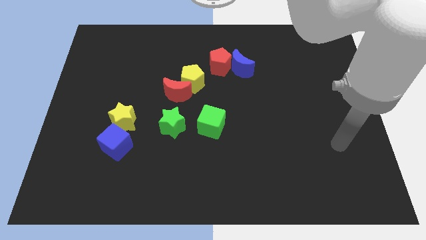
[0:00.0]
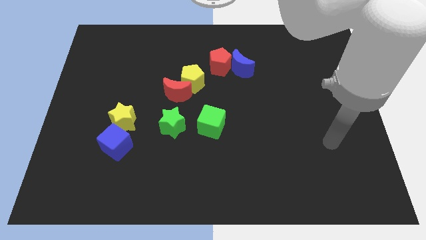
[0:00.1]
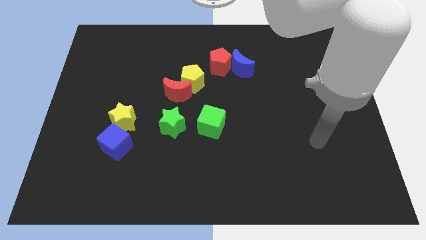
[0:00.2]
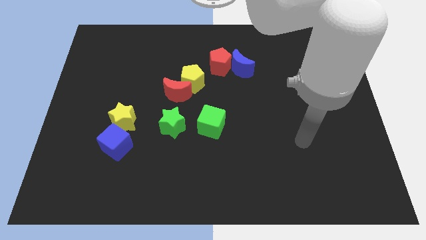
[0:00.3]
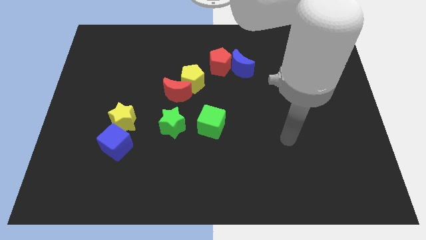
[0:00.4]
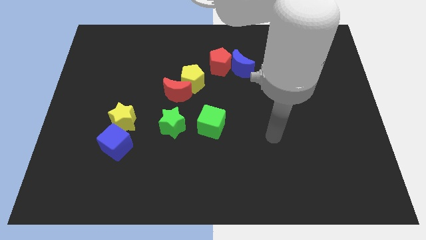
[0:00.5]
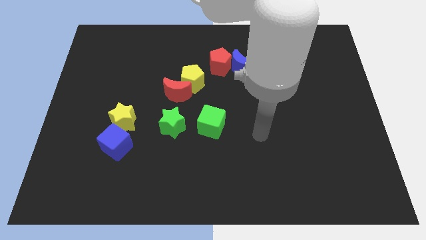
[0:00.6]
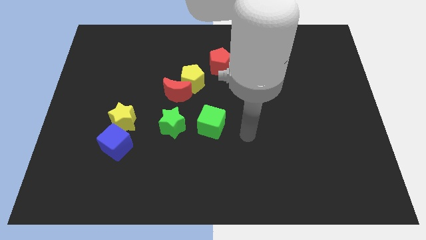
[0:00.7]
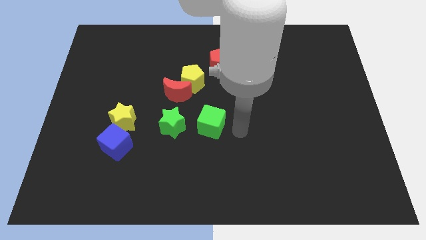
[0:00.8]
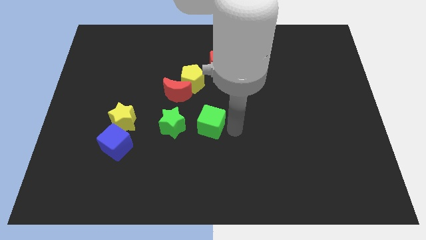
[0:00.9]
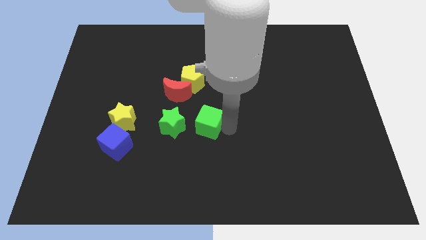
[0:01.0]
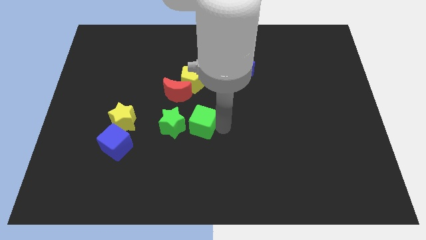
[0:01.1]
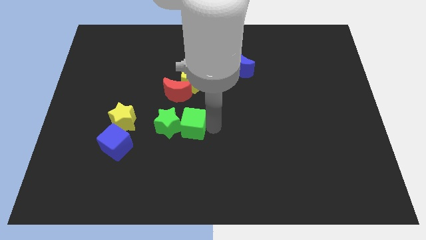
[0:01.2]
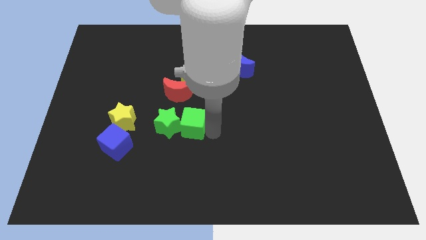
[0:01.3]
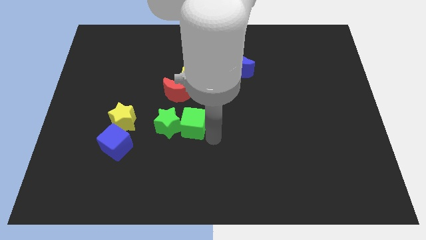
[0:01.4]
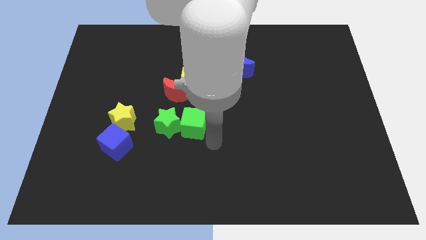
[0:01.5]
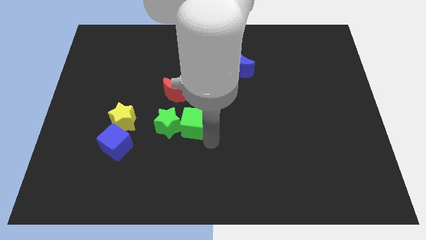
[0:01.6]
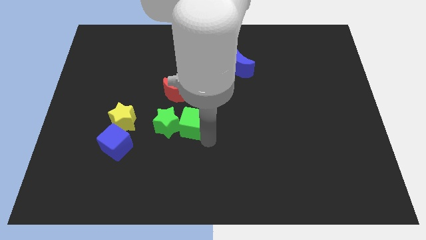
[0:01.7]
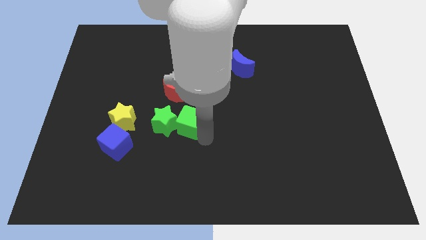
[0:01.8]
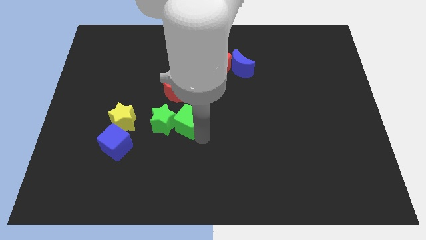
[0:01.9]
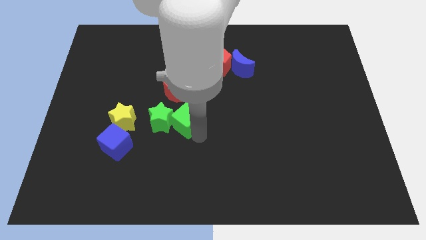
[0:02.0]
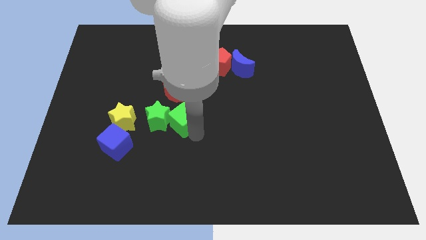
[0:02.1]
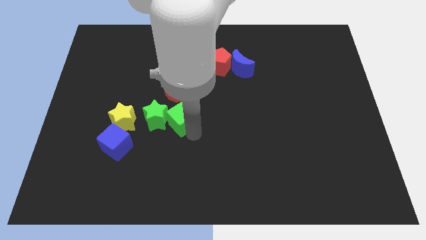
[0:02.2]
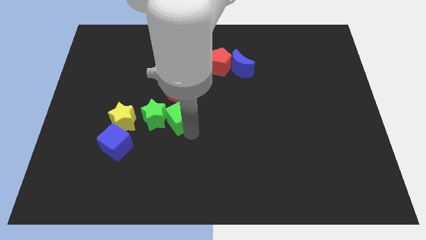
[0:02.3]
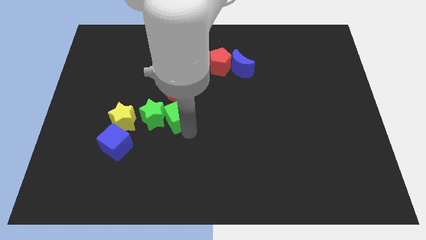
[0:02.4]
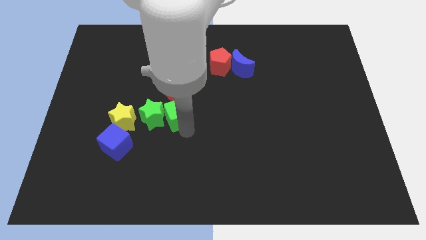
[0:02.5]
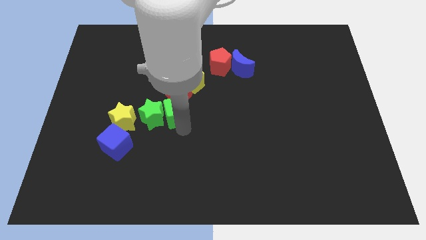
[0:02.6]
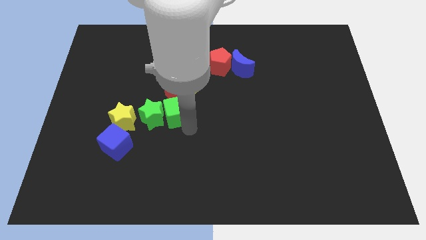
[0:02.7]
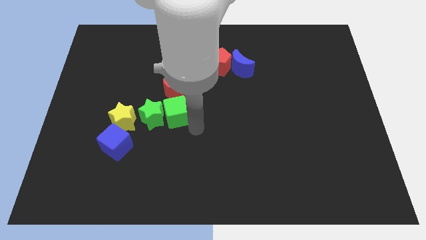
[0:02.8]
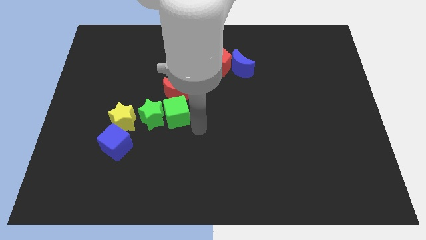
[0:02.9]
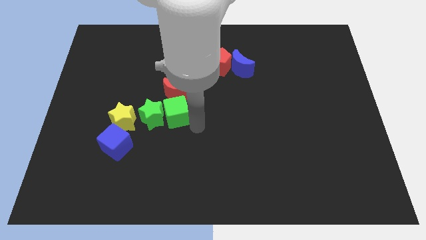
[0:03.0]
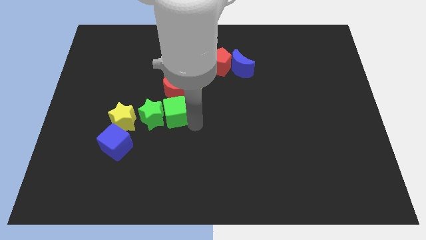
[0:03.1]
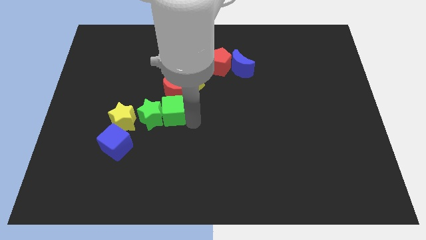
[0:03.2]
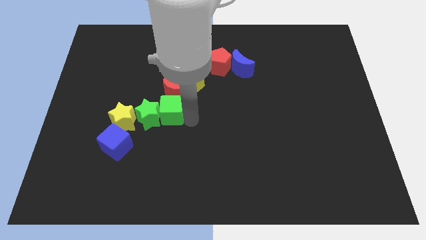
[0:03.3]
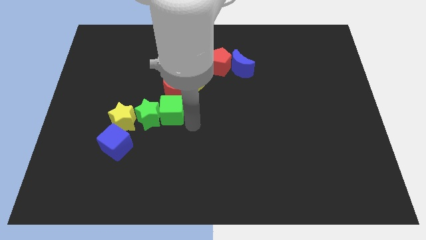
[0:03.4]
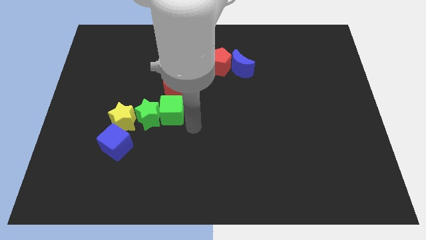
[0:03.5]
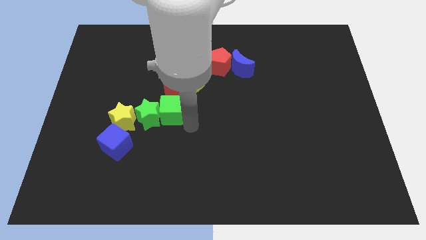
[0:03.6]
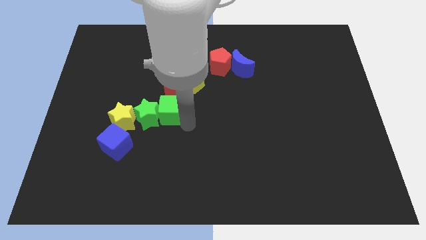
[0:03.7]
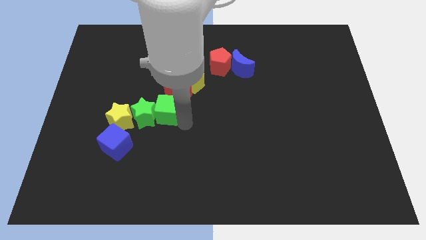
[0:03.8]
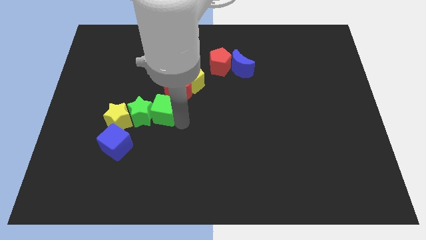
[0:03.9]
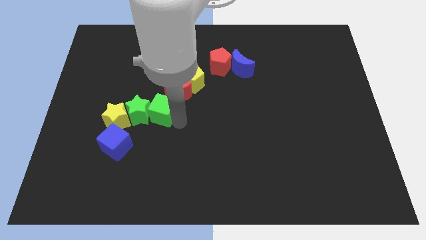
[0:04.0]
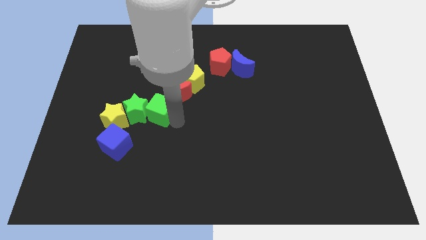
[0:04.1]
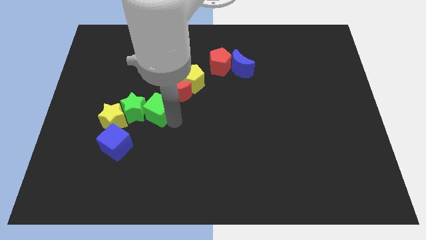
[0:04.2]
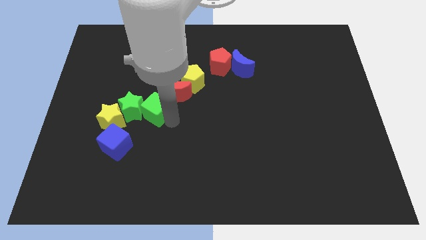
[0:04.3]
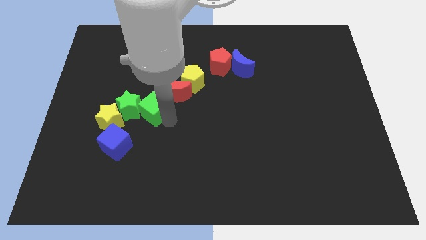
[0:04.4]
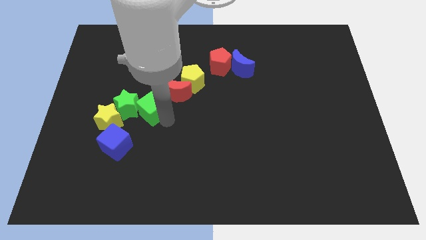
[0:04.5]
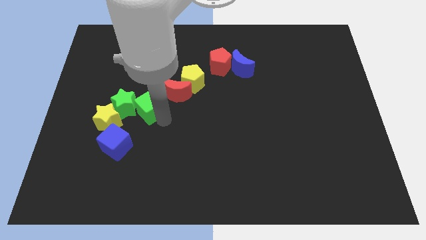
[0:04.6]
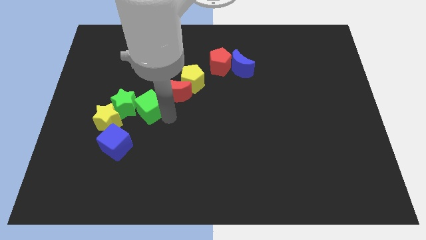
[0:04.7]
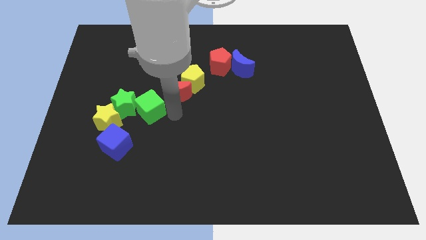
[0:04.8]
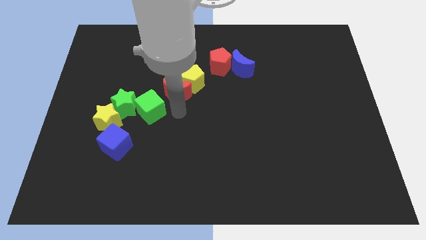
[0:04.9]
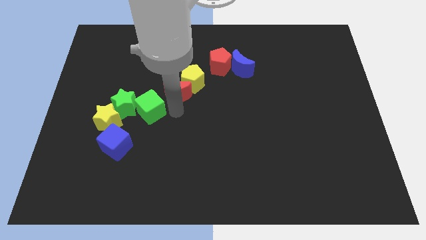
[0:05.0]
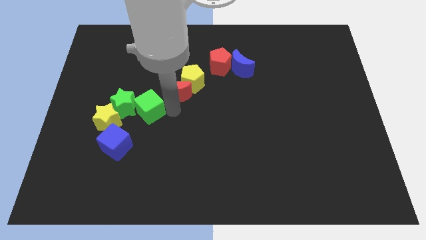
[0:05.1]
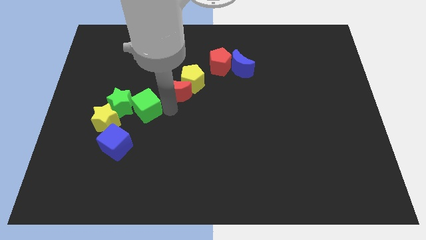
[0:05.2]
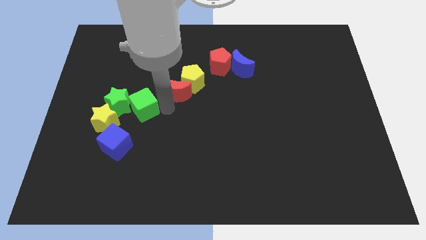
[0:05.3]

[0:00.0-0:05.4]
move the green cube to the top of the blue cube

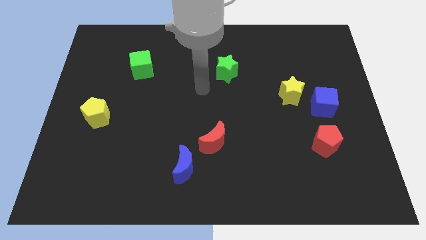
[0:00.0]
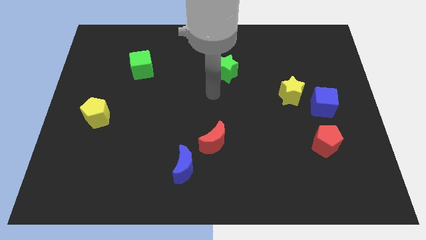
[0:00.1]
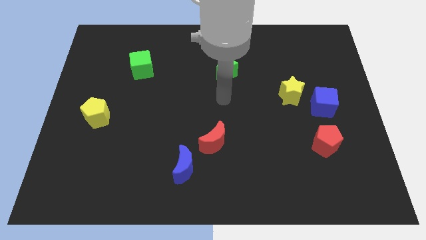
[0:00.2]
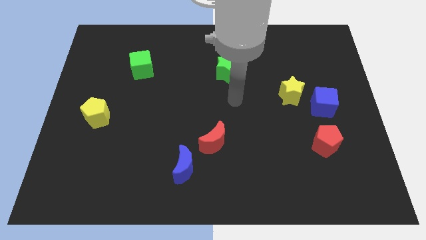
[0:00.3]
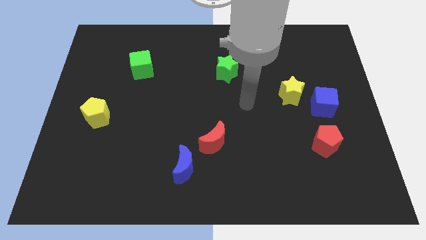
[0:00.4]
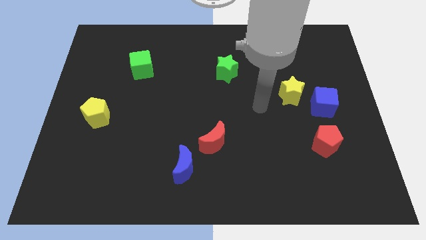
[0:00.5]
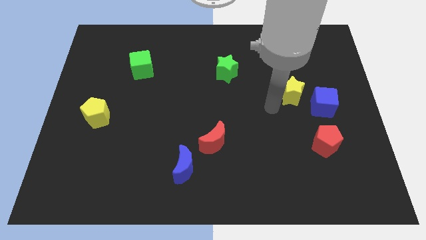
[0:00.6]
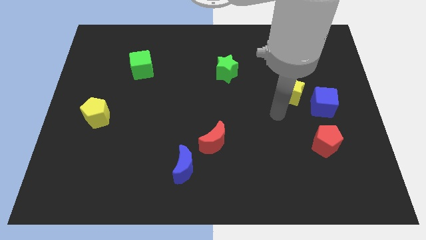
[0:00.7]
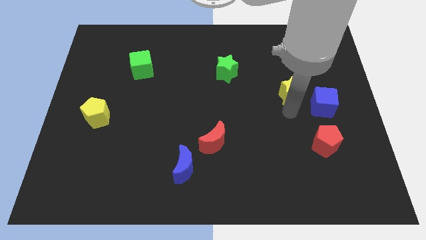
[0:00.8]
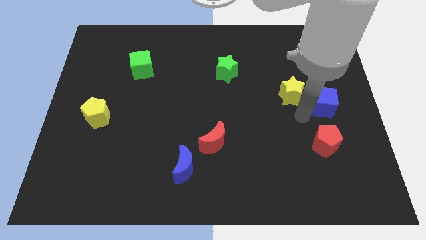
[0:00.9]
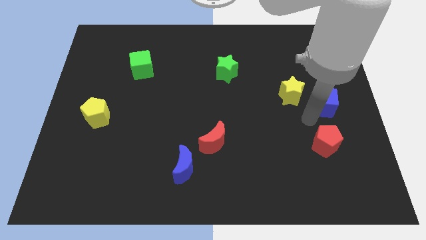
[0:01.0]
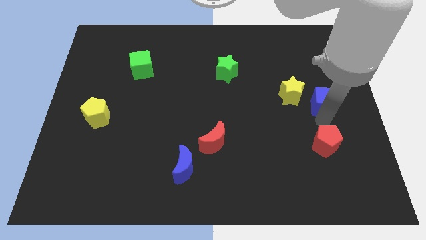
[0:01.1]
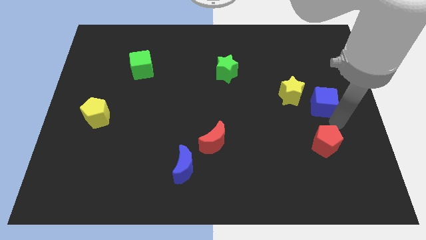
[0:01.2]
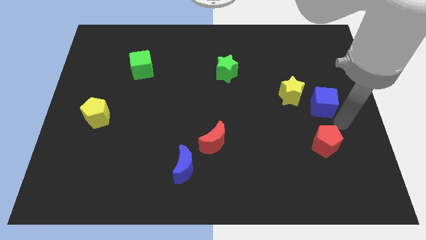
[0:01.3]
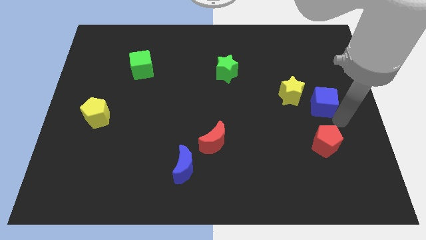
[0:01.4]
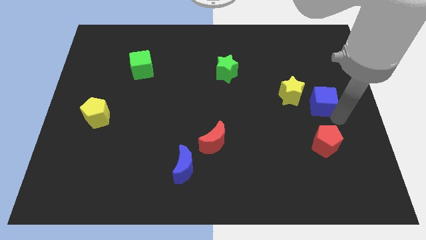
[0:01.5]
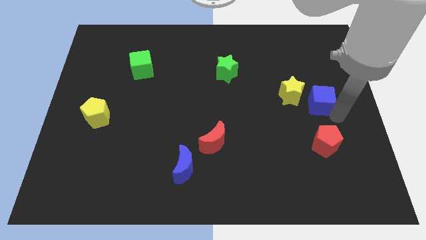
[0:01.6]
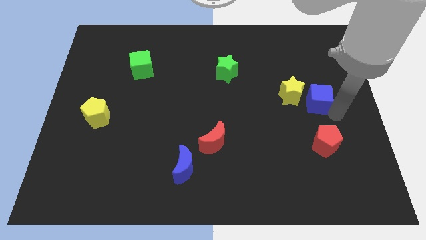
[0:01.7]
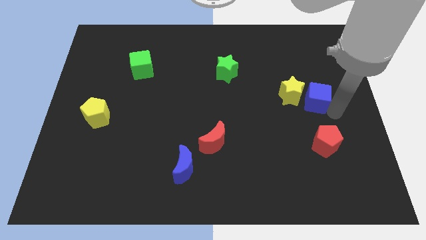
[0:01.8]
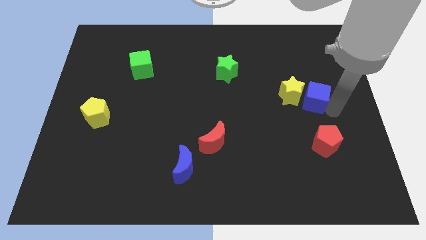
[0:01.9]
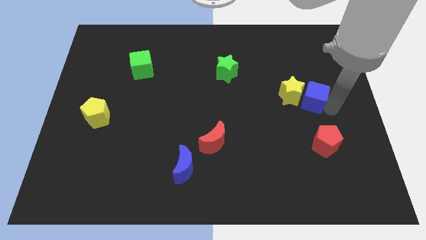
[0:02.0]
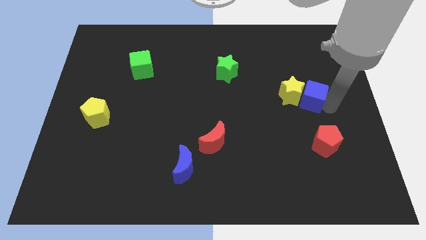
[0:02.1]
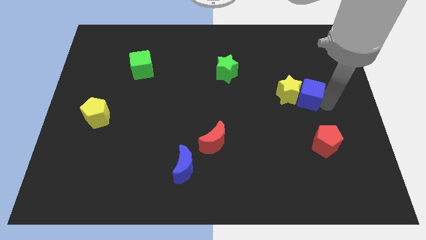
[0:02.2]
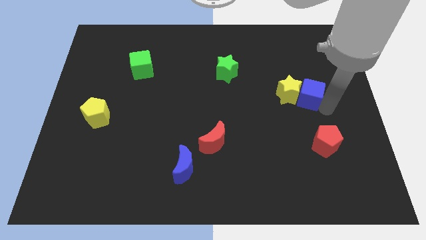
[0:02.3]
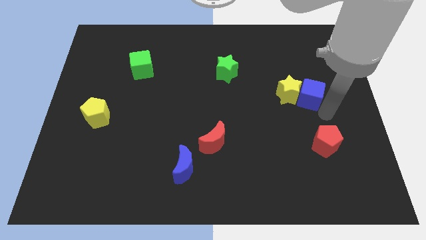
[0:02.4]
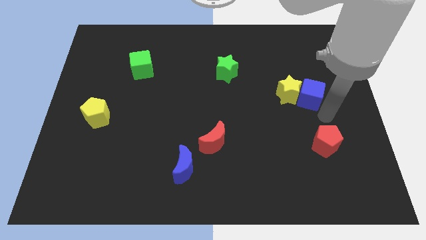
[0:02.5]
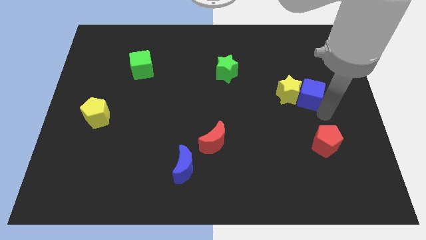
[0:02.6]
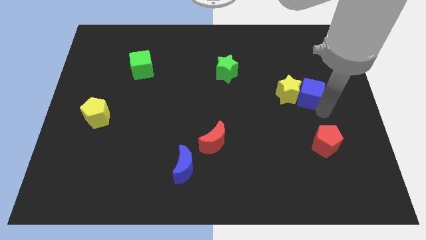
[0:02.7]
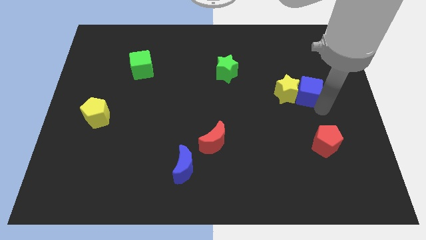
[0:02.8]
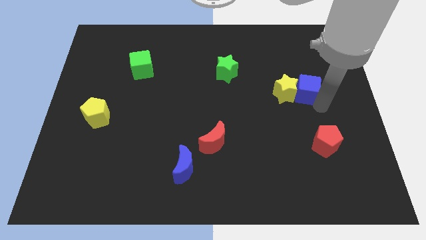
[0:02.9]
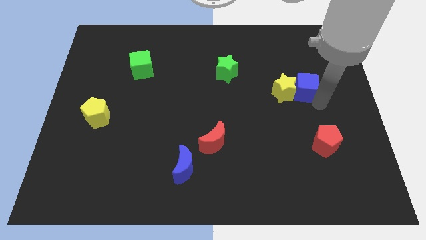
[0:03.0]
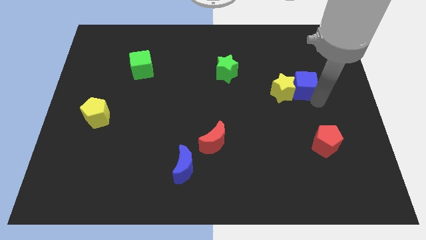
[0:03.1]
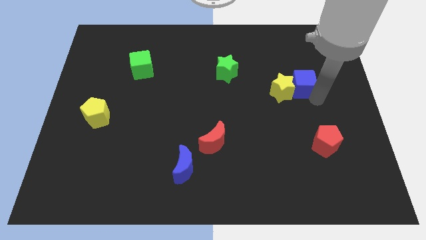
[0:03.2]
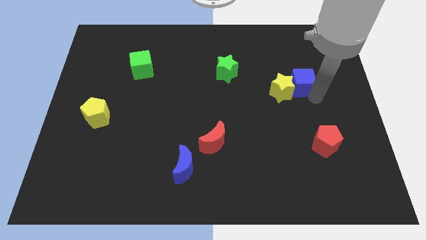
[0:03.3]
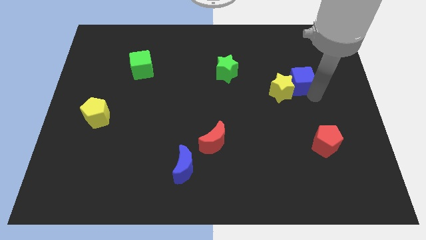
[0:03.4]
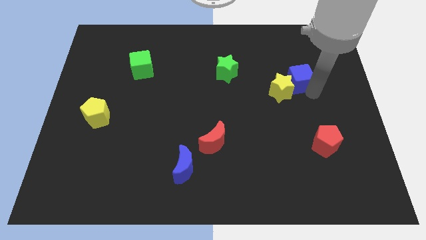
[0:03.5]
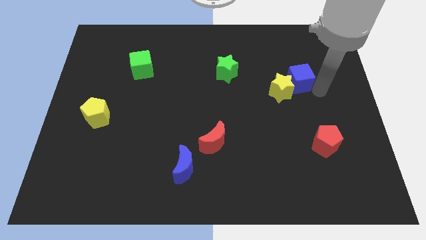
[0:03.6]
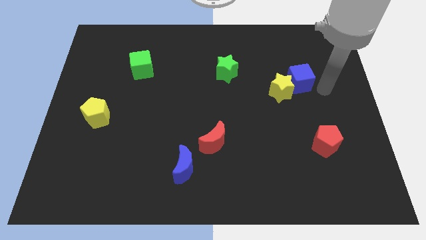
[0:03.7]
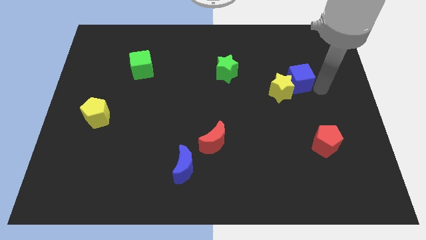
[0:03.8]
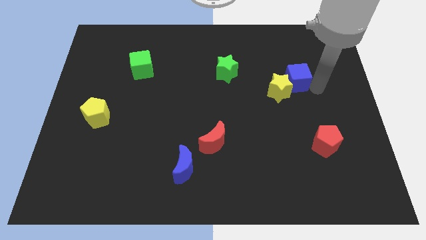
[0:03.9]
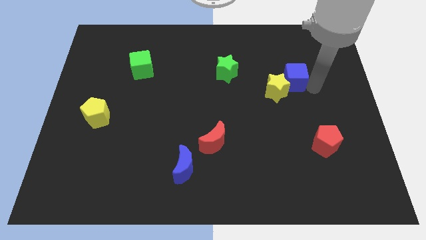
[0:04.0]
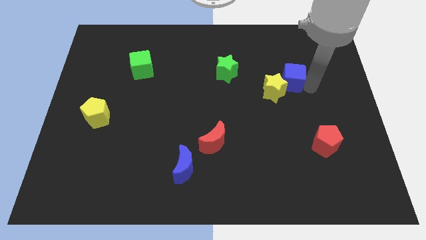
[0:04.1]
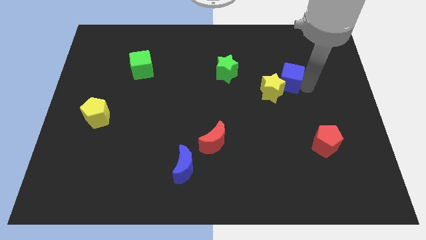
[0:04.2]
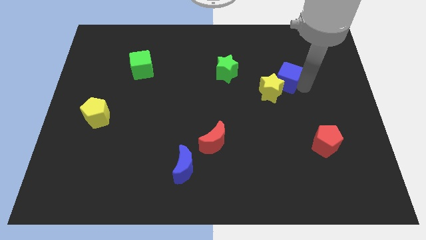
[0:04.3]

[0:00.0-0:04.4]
move the blue cube just right of the green star
